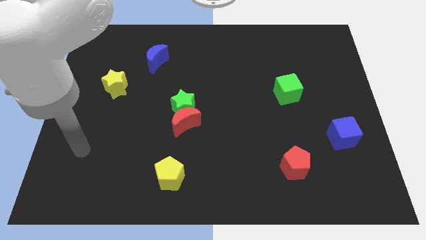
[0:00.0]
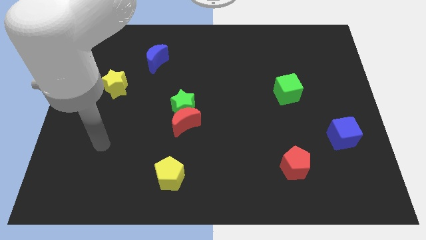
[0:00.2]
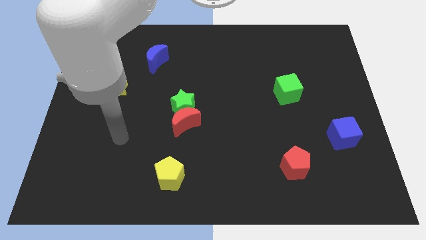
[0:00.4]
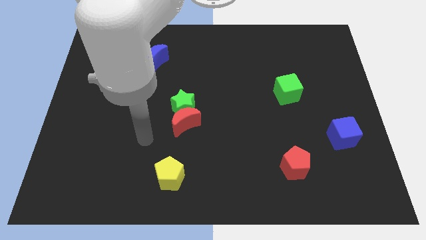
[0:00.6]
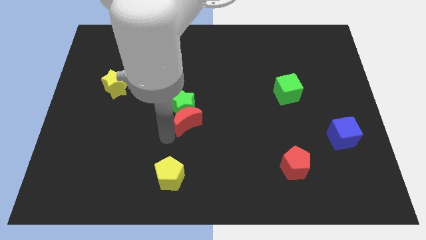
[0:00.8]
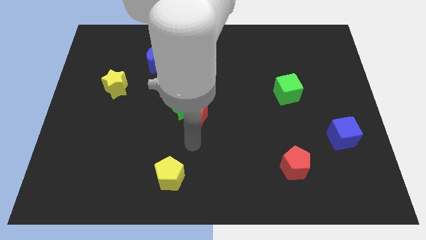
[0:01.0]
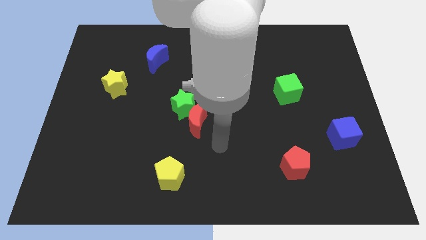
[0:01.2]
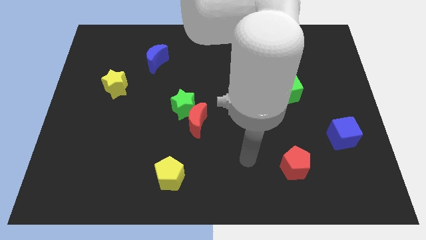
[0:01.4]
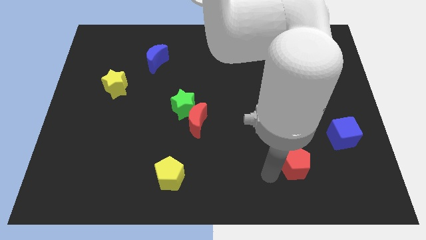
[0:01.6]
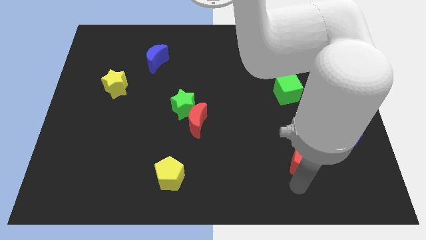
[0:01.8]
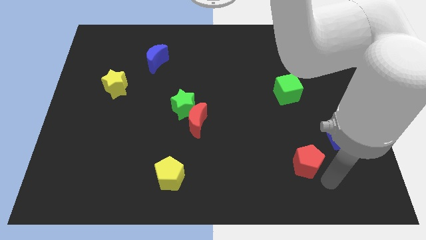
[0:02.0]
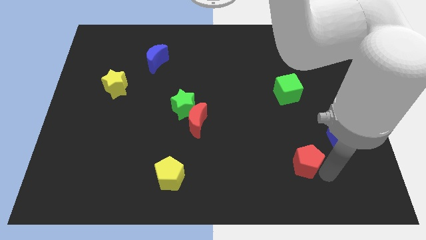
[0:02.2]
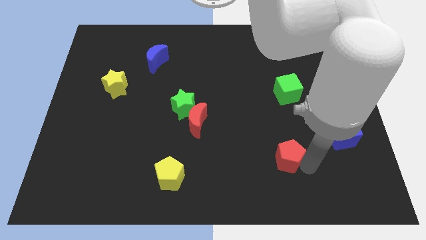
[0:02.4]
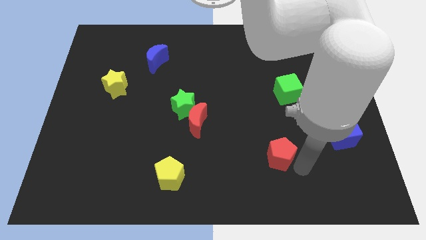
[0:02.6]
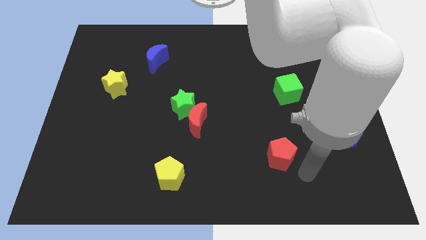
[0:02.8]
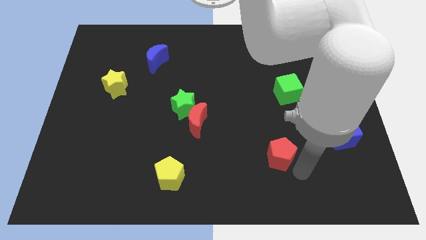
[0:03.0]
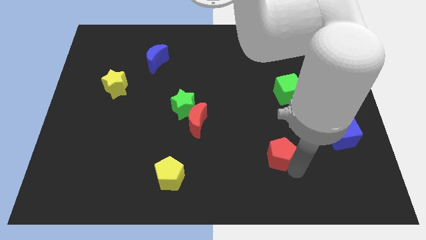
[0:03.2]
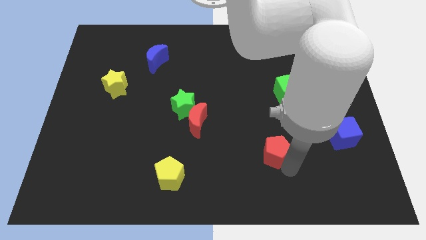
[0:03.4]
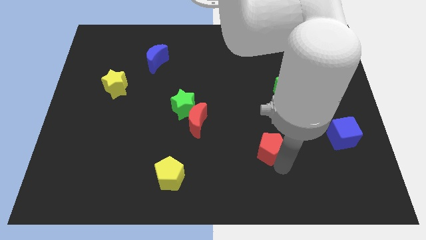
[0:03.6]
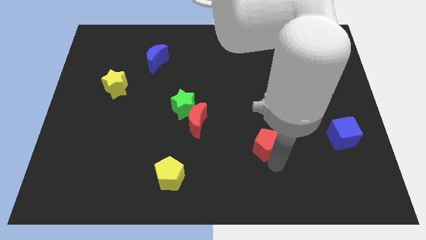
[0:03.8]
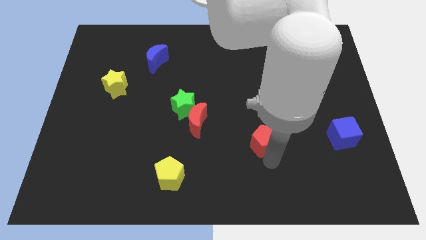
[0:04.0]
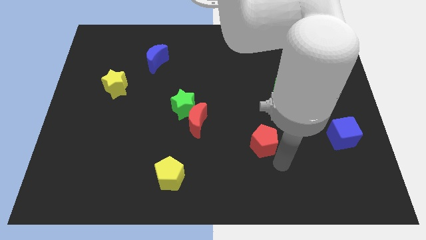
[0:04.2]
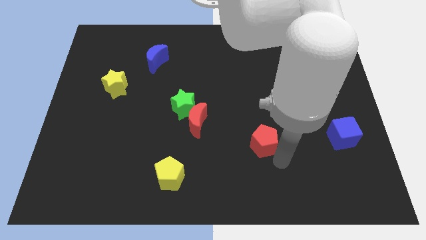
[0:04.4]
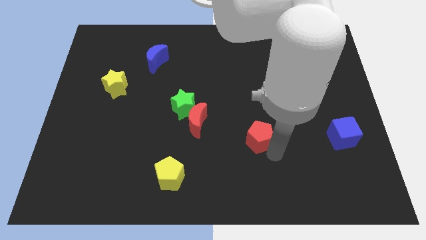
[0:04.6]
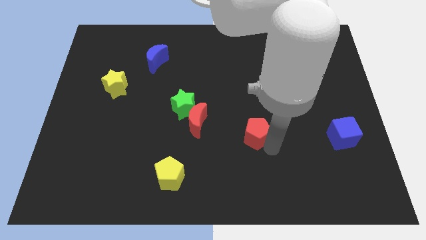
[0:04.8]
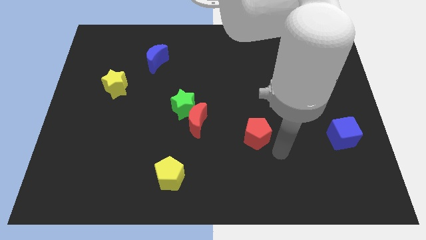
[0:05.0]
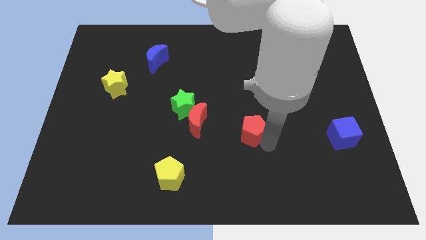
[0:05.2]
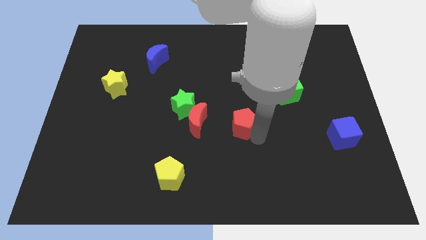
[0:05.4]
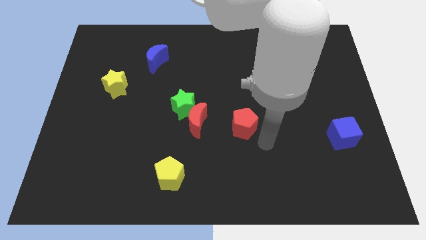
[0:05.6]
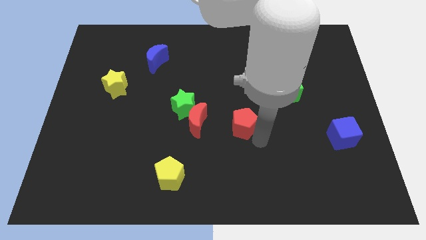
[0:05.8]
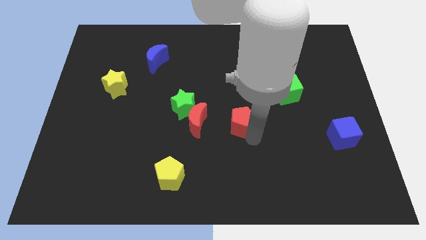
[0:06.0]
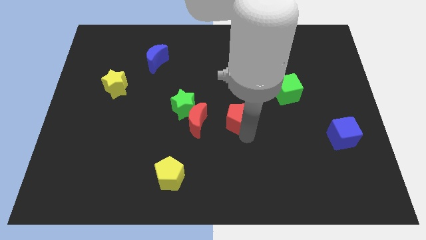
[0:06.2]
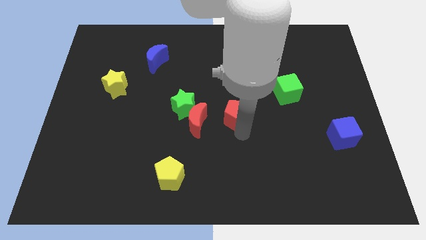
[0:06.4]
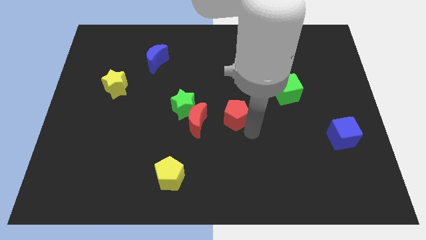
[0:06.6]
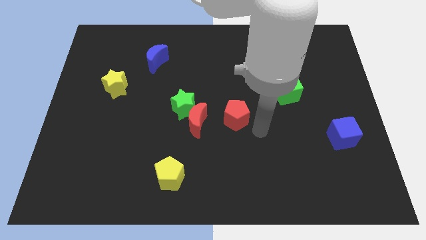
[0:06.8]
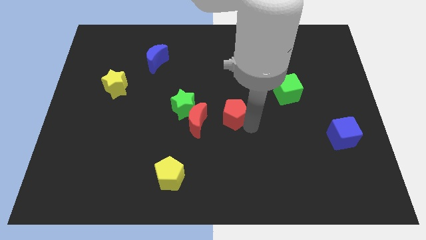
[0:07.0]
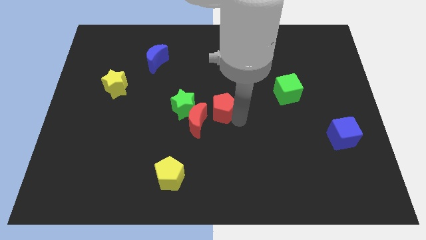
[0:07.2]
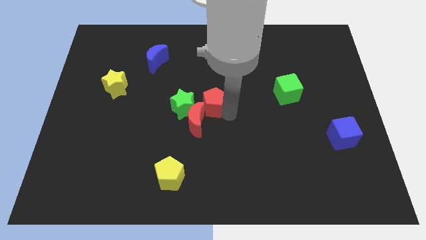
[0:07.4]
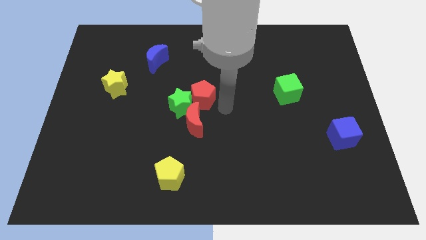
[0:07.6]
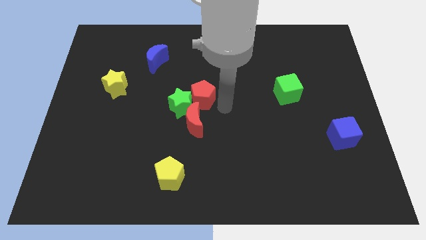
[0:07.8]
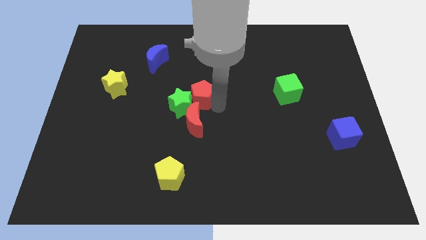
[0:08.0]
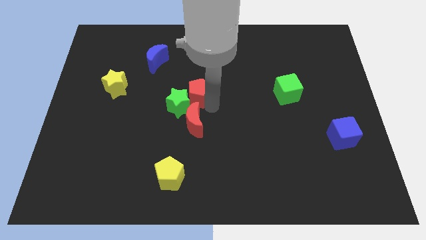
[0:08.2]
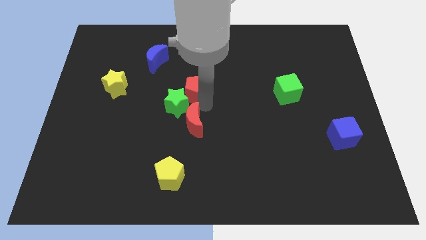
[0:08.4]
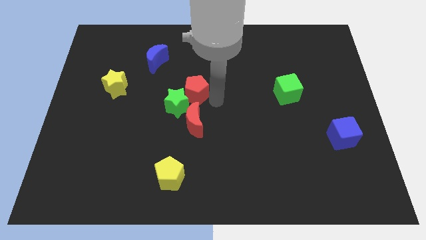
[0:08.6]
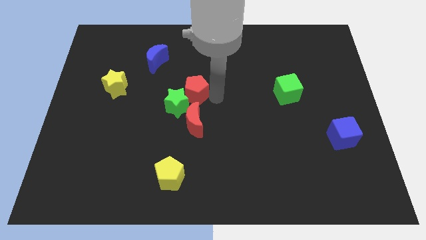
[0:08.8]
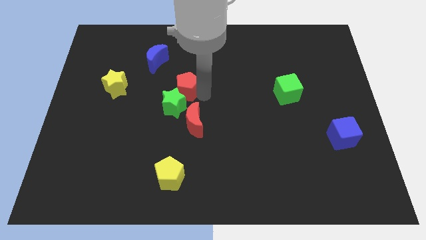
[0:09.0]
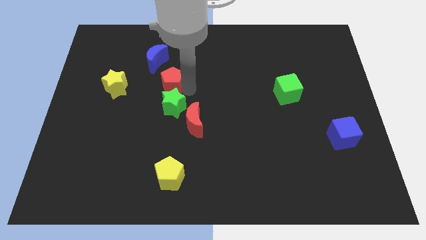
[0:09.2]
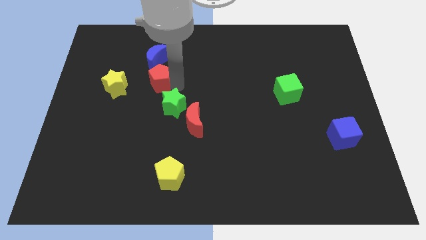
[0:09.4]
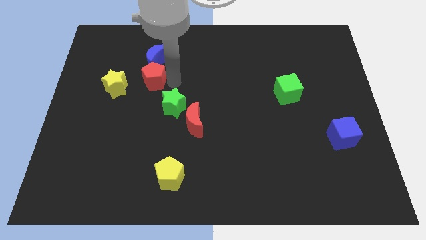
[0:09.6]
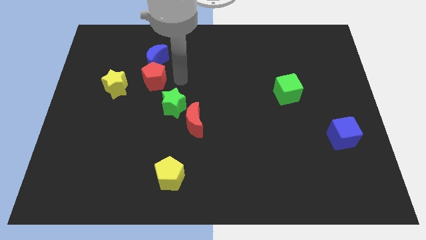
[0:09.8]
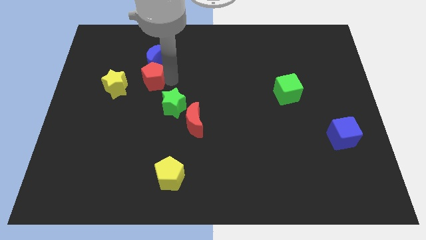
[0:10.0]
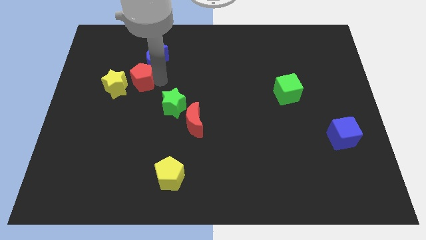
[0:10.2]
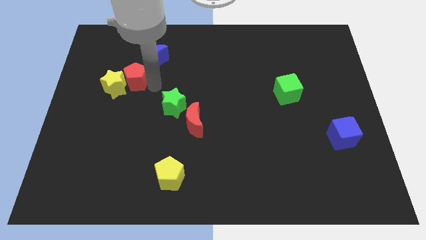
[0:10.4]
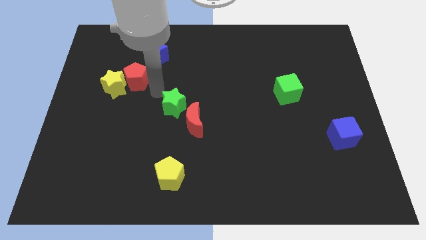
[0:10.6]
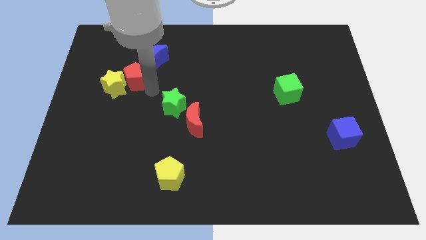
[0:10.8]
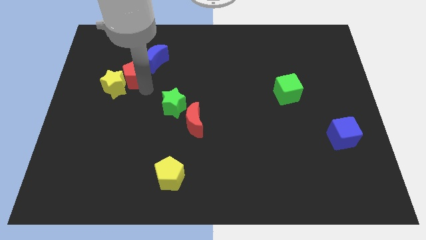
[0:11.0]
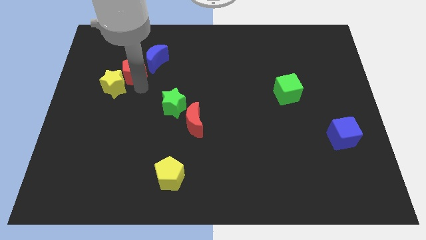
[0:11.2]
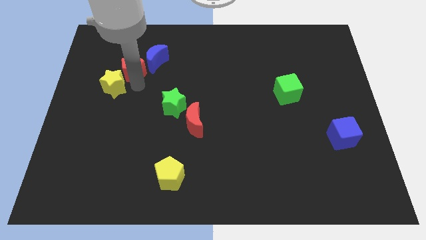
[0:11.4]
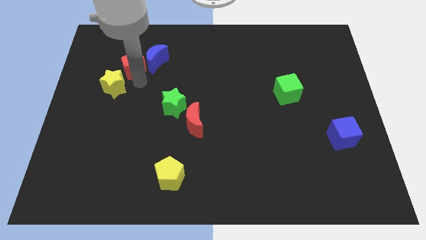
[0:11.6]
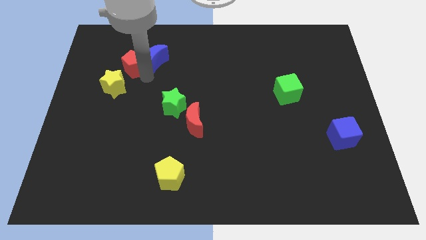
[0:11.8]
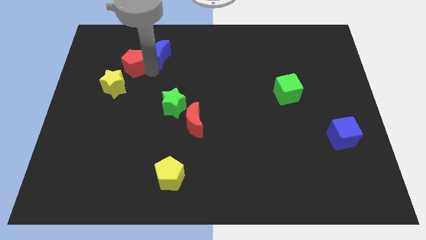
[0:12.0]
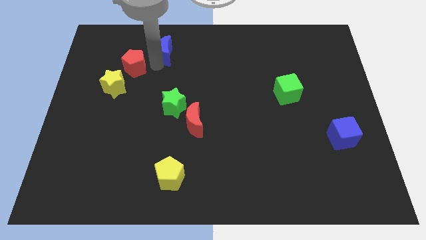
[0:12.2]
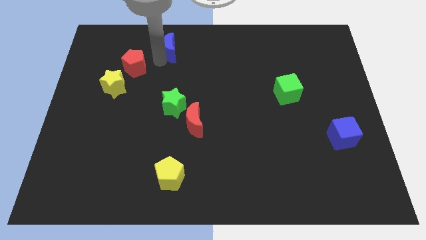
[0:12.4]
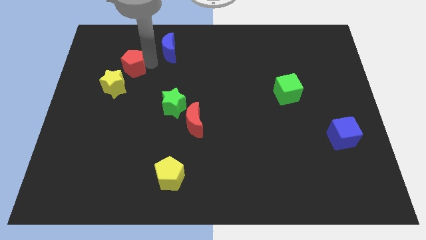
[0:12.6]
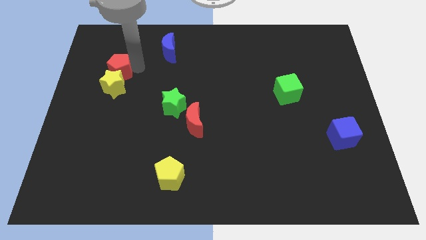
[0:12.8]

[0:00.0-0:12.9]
push the red pentagon to the top left of the yellow star
